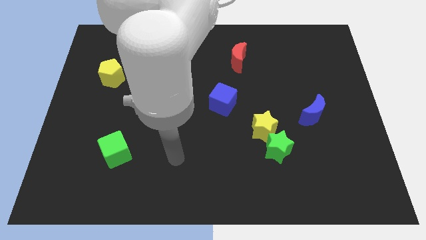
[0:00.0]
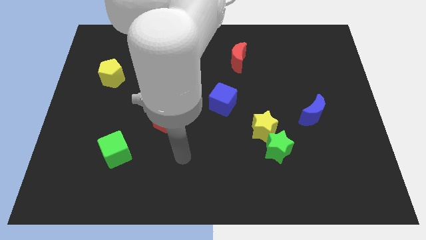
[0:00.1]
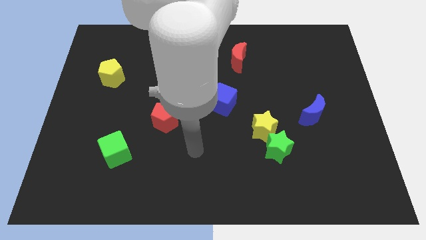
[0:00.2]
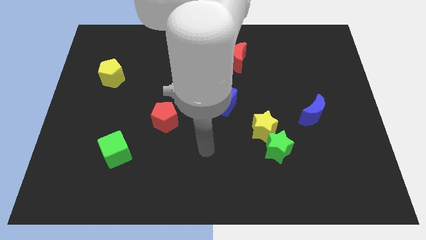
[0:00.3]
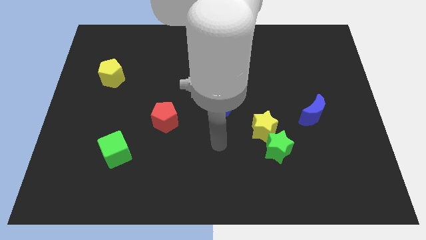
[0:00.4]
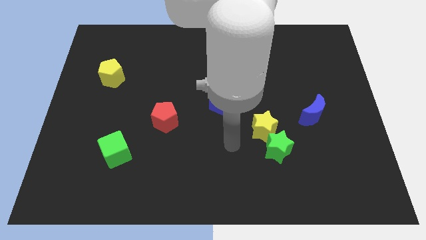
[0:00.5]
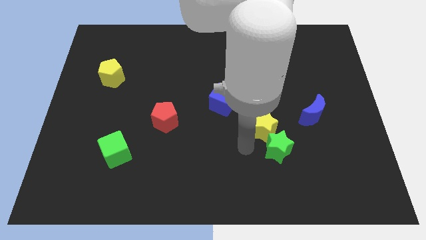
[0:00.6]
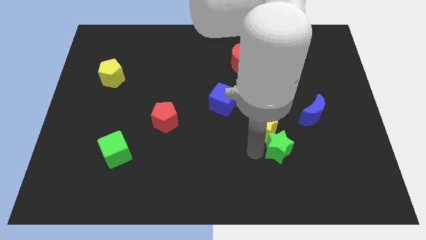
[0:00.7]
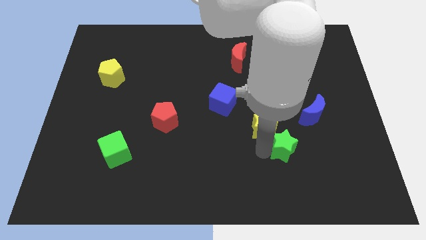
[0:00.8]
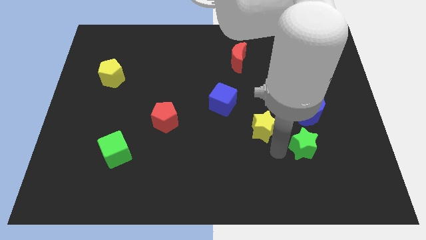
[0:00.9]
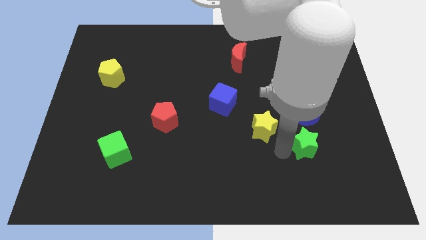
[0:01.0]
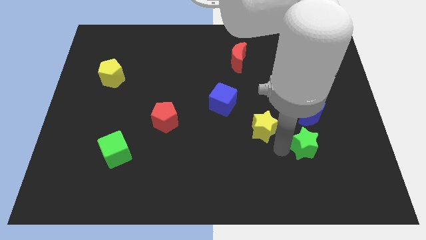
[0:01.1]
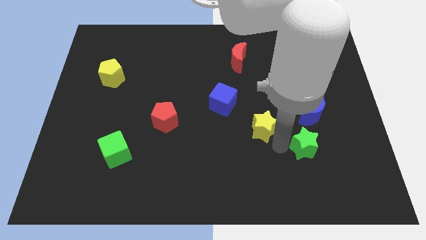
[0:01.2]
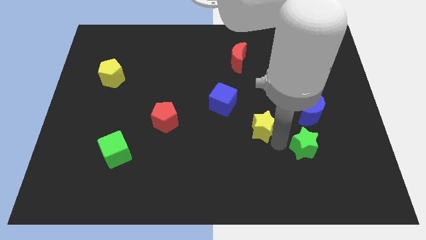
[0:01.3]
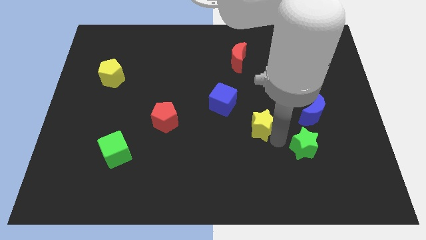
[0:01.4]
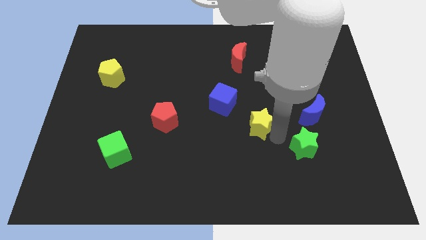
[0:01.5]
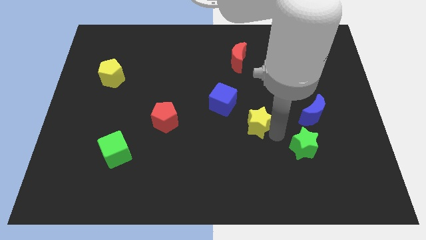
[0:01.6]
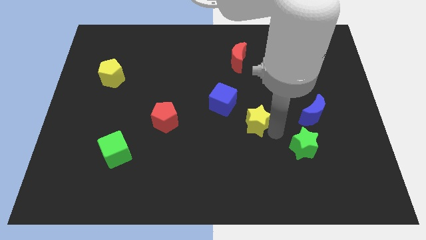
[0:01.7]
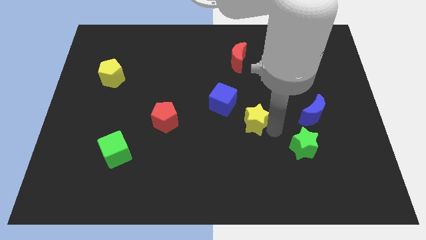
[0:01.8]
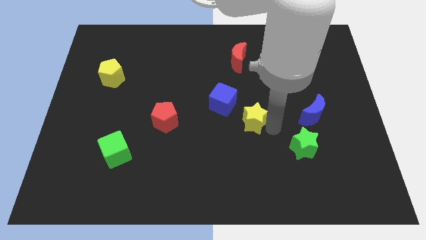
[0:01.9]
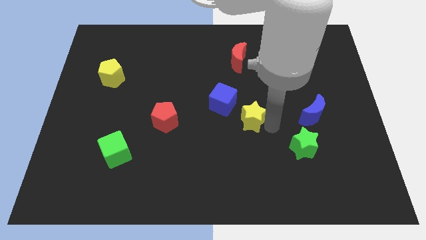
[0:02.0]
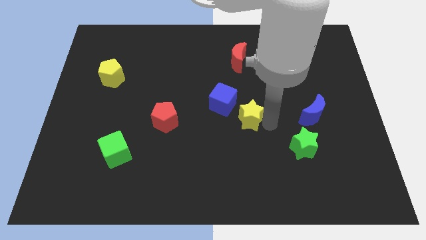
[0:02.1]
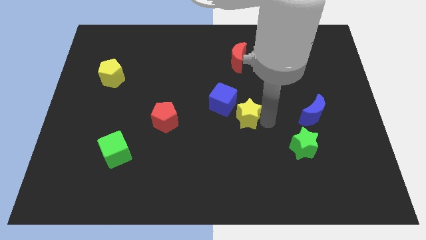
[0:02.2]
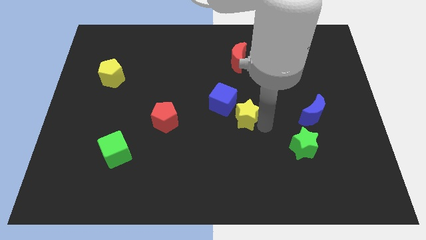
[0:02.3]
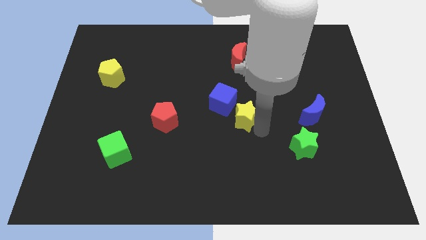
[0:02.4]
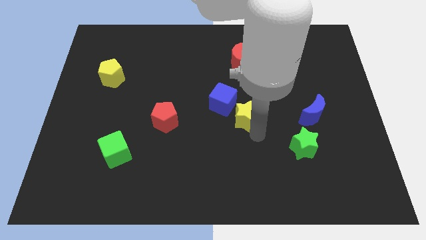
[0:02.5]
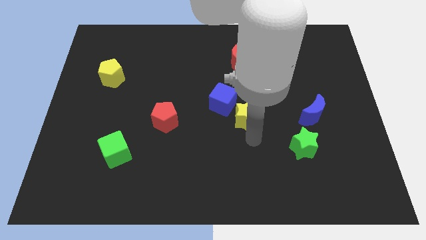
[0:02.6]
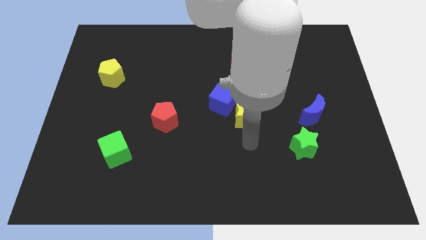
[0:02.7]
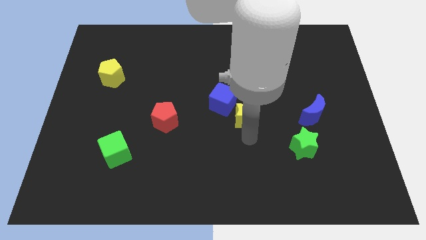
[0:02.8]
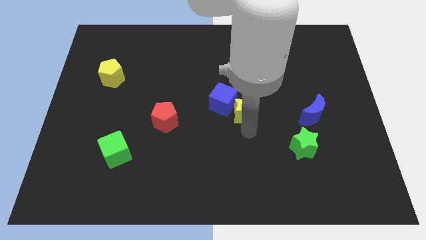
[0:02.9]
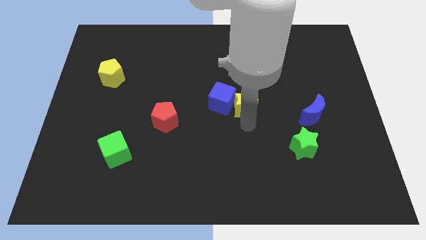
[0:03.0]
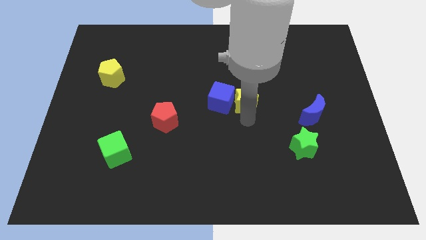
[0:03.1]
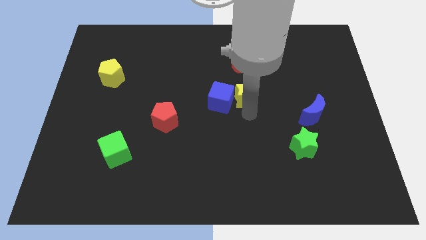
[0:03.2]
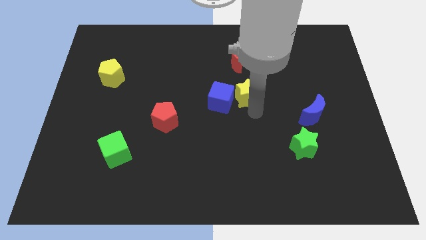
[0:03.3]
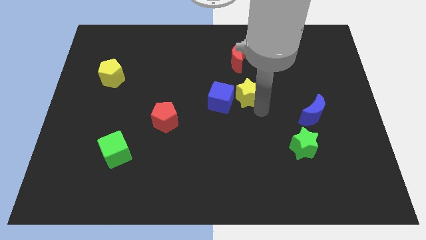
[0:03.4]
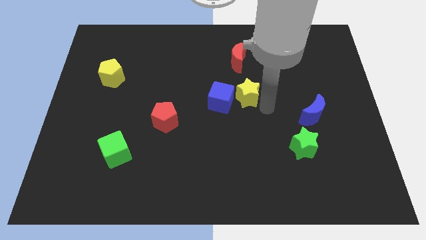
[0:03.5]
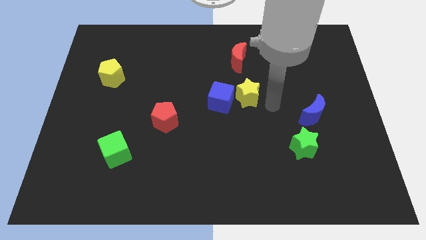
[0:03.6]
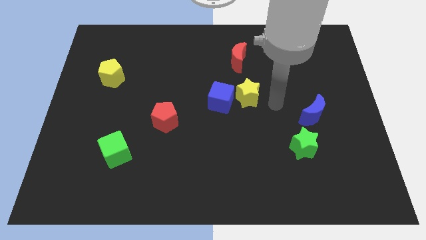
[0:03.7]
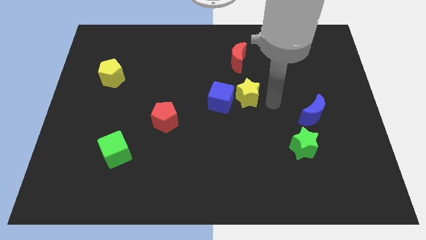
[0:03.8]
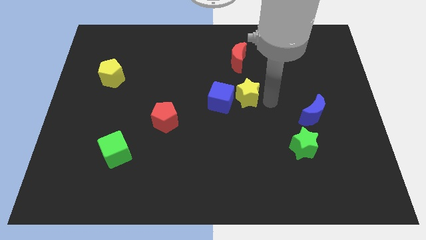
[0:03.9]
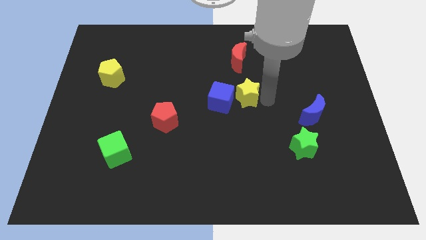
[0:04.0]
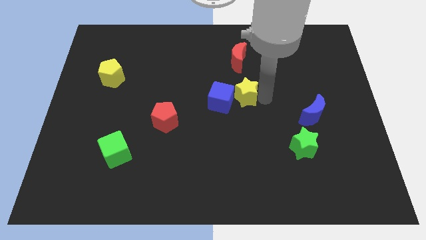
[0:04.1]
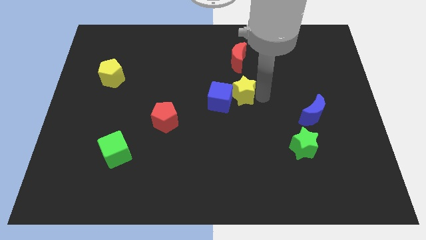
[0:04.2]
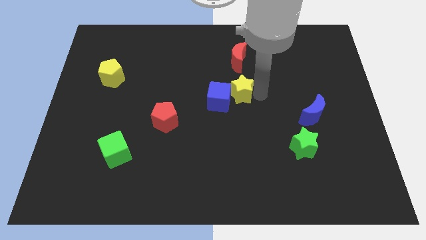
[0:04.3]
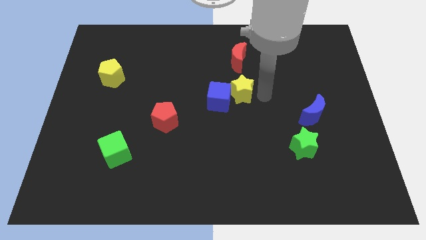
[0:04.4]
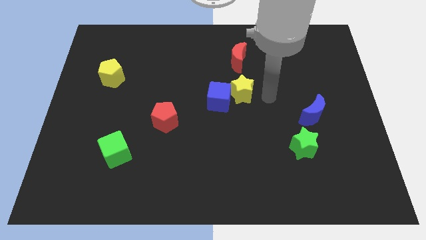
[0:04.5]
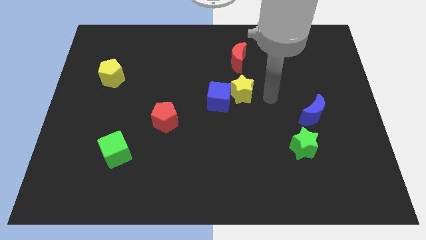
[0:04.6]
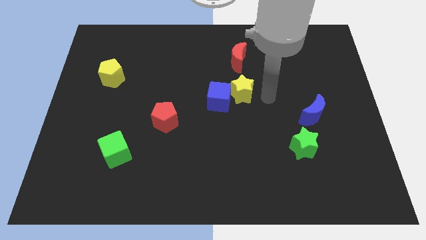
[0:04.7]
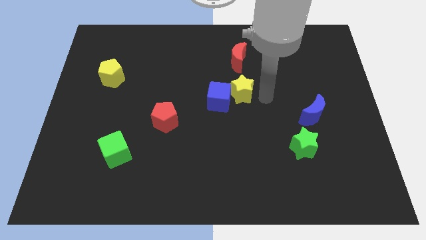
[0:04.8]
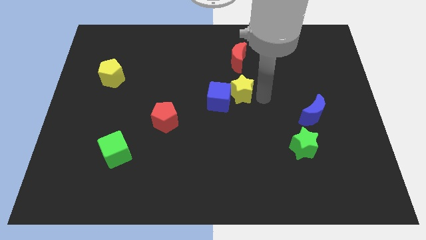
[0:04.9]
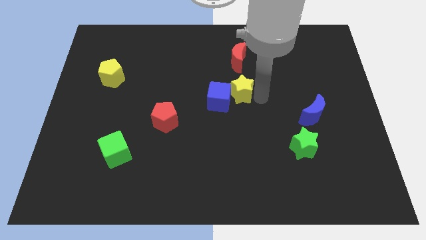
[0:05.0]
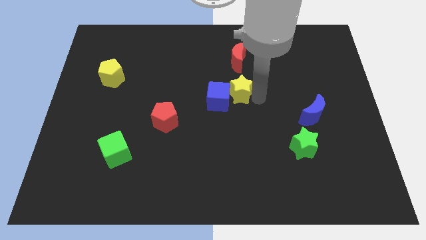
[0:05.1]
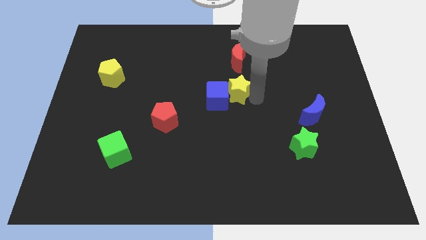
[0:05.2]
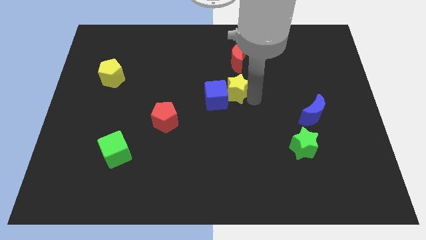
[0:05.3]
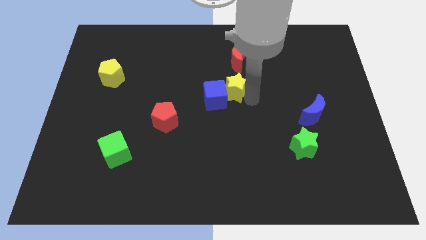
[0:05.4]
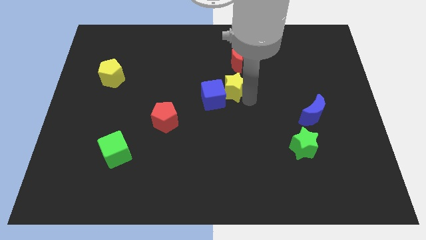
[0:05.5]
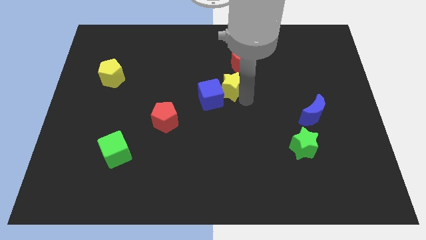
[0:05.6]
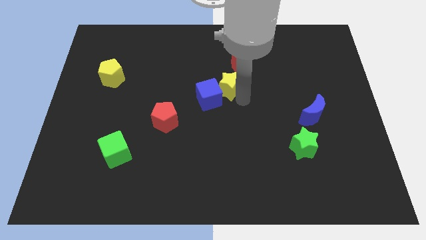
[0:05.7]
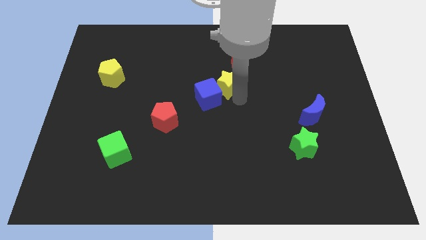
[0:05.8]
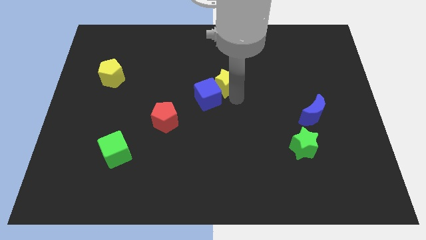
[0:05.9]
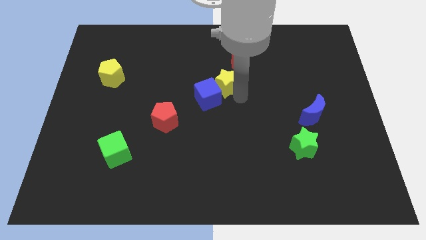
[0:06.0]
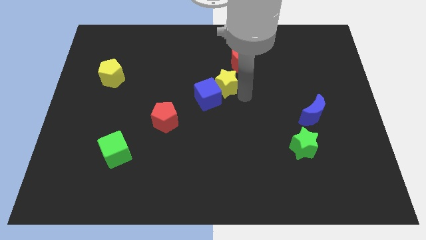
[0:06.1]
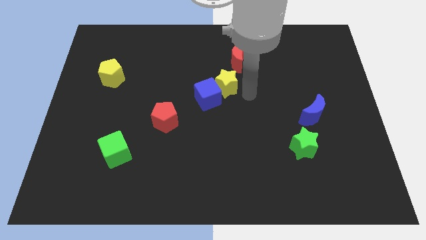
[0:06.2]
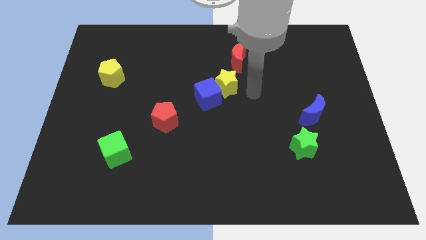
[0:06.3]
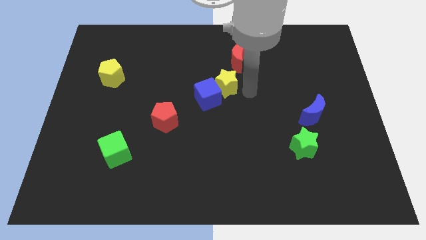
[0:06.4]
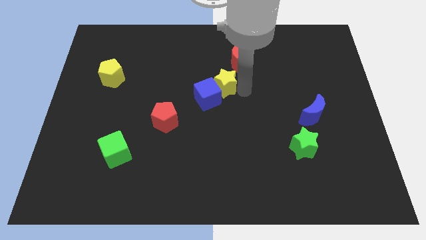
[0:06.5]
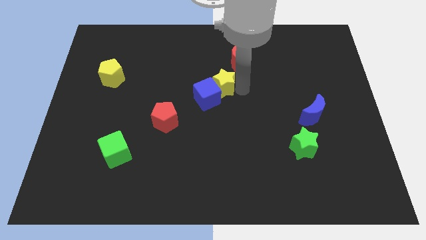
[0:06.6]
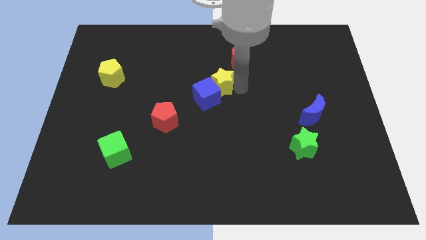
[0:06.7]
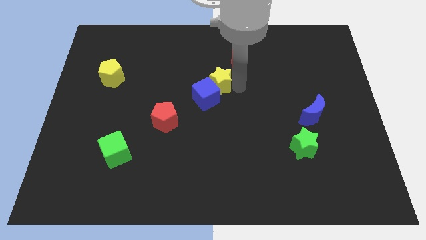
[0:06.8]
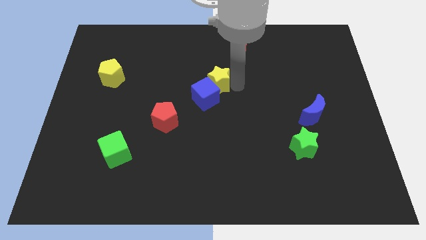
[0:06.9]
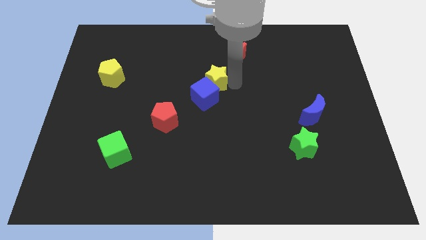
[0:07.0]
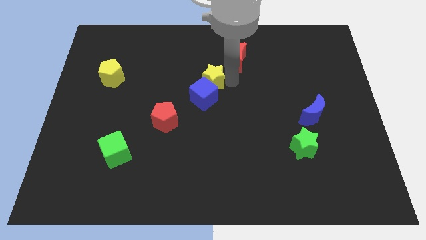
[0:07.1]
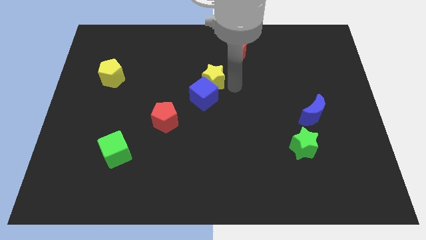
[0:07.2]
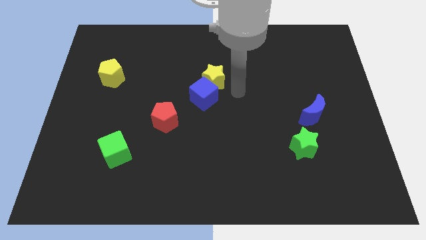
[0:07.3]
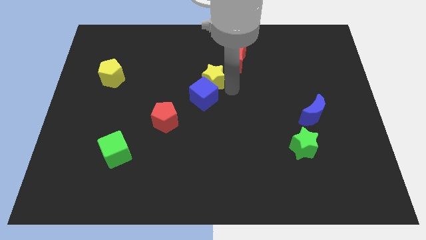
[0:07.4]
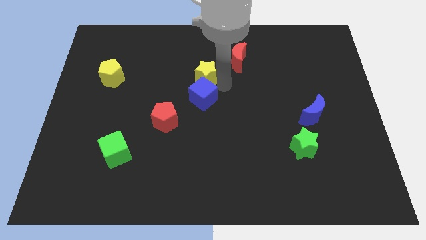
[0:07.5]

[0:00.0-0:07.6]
move the yellow star diagonally upwards and to the left

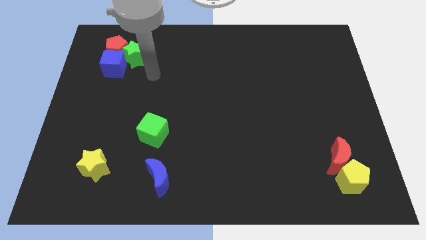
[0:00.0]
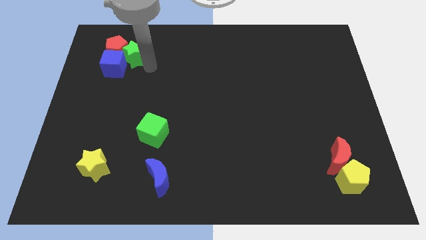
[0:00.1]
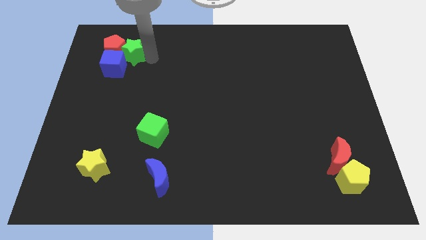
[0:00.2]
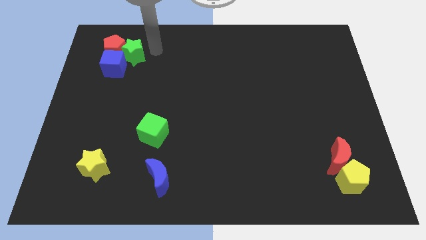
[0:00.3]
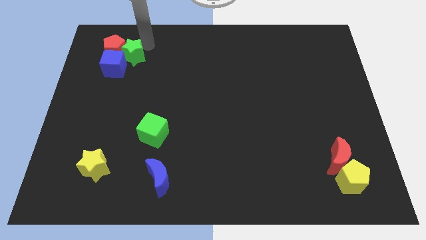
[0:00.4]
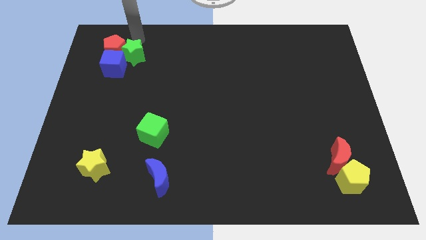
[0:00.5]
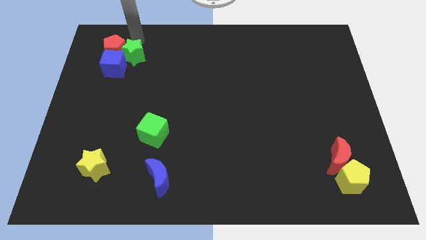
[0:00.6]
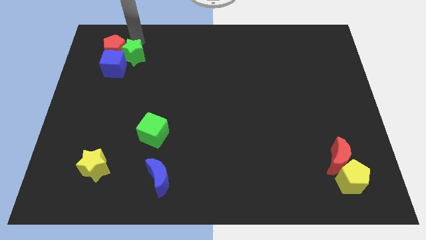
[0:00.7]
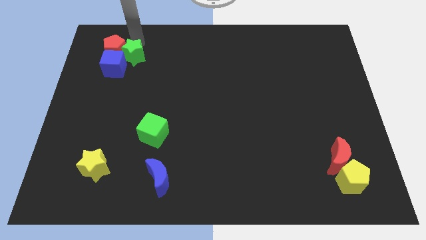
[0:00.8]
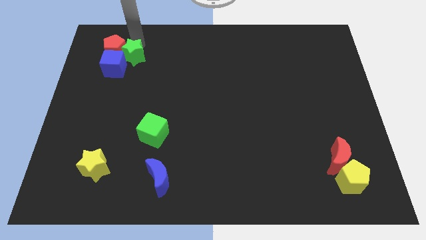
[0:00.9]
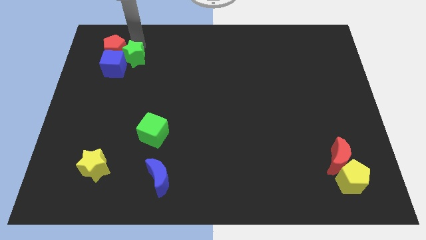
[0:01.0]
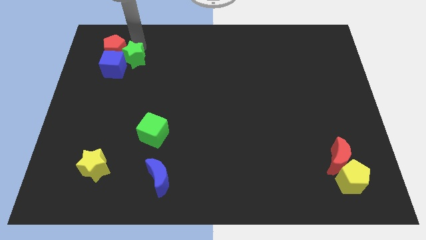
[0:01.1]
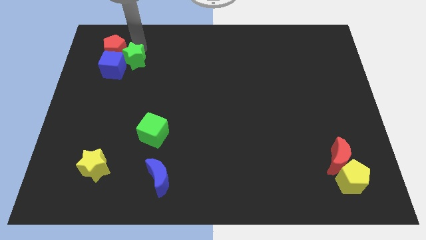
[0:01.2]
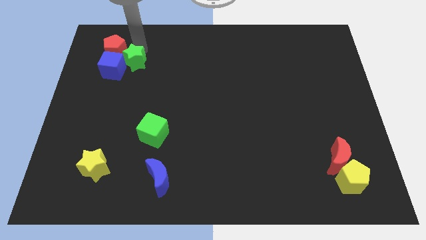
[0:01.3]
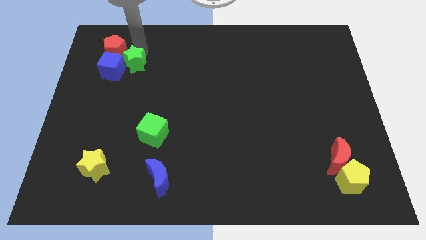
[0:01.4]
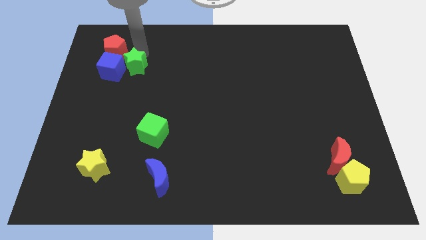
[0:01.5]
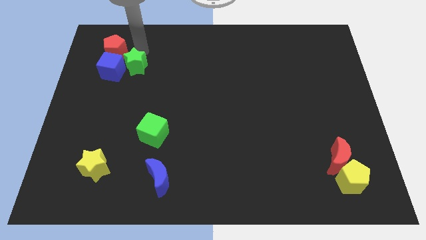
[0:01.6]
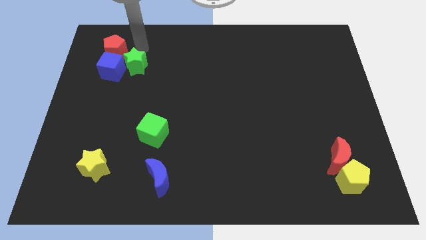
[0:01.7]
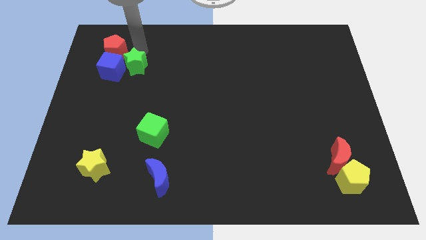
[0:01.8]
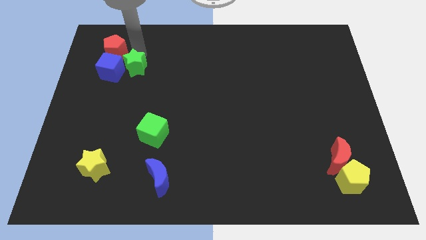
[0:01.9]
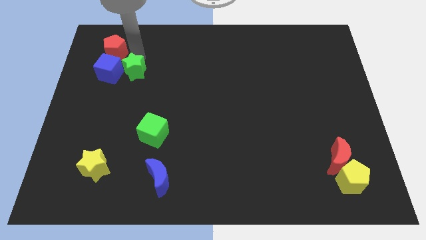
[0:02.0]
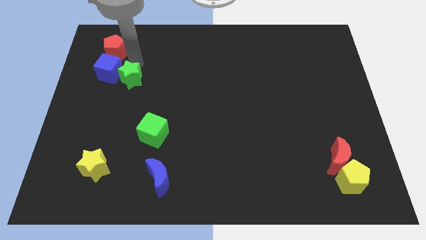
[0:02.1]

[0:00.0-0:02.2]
slide the green star downwards somewhat
